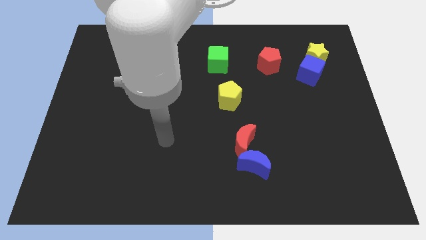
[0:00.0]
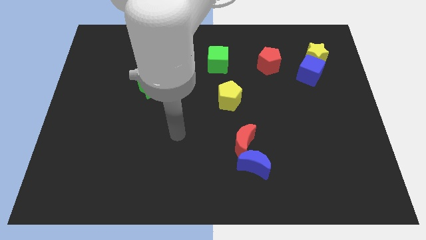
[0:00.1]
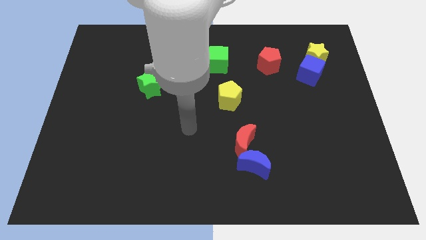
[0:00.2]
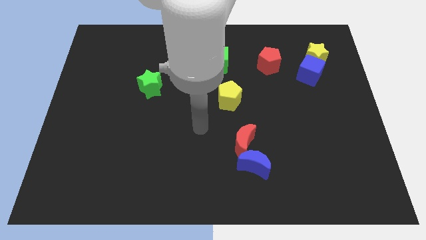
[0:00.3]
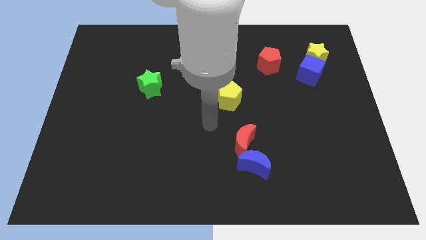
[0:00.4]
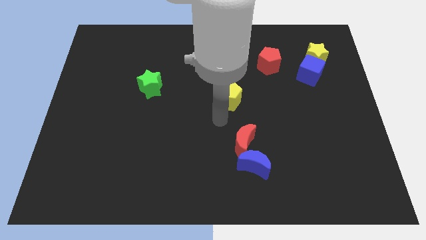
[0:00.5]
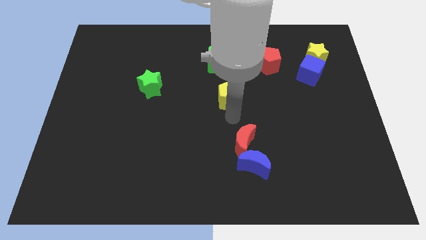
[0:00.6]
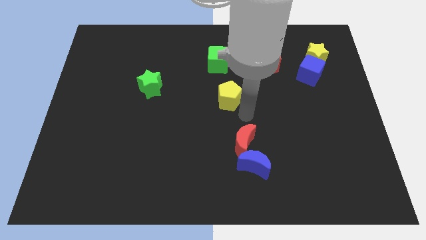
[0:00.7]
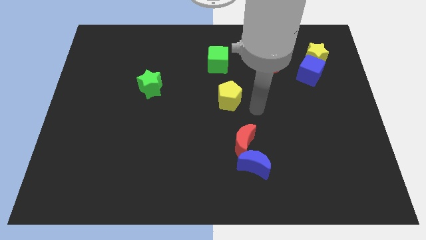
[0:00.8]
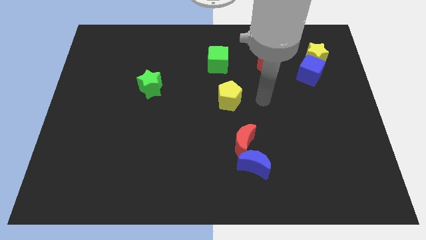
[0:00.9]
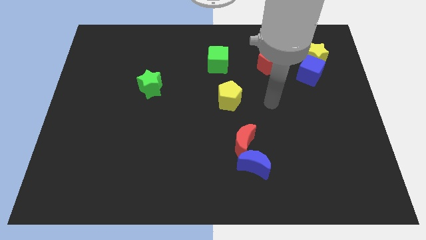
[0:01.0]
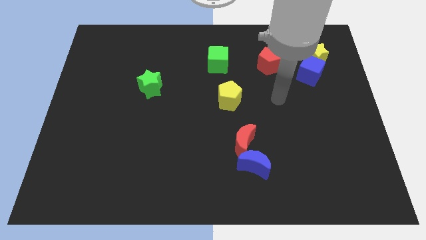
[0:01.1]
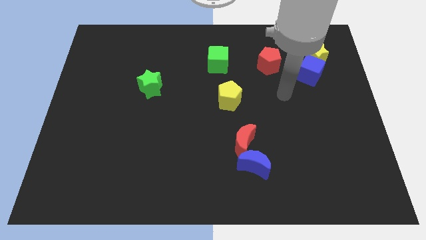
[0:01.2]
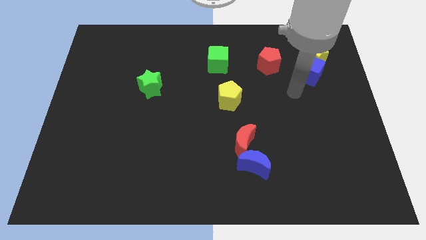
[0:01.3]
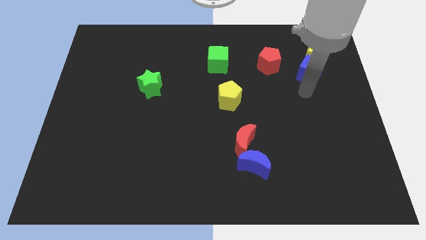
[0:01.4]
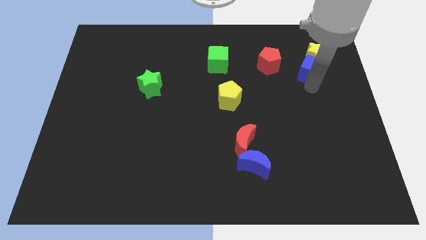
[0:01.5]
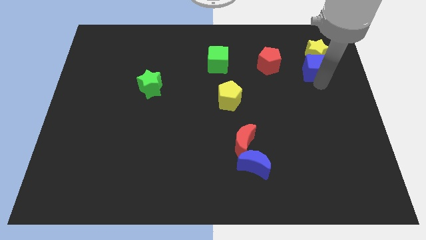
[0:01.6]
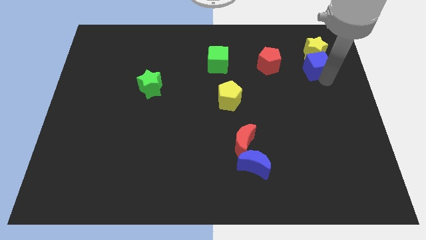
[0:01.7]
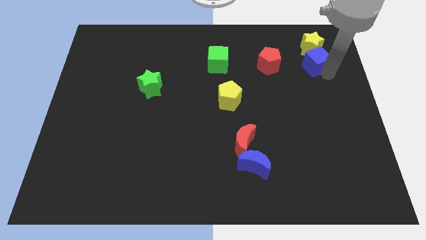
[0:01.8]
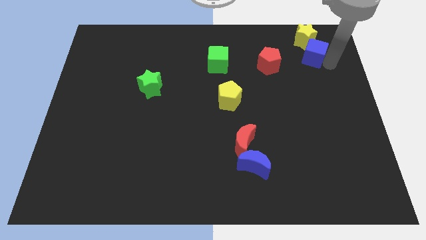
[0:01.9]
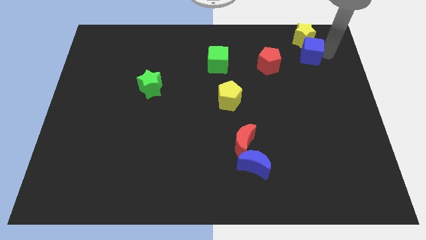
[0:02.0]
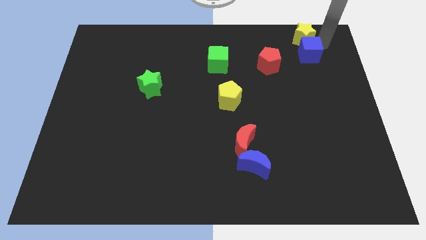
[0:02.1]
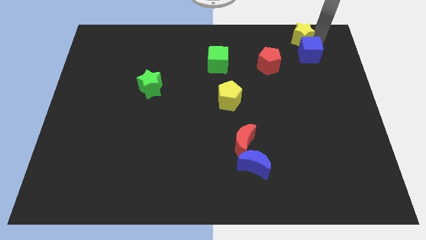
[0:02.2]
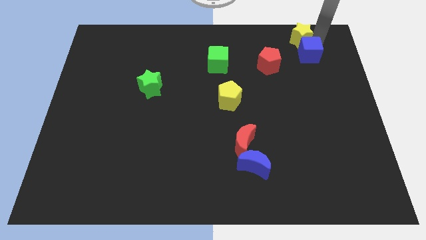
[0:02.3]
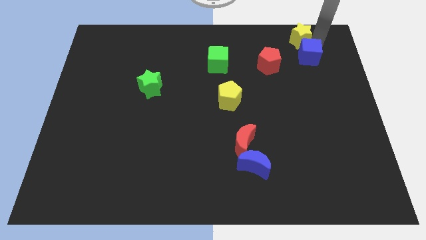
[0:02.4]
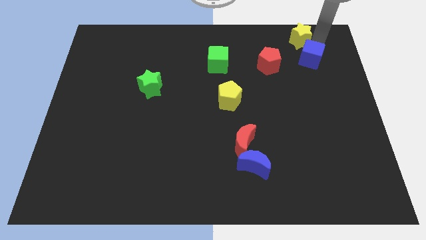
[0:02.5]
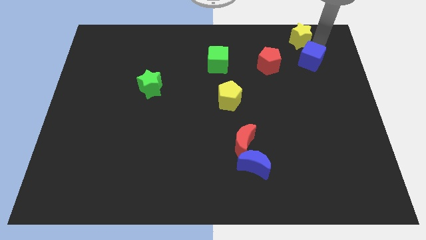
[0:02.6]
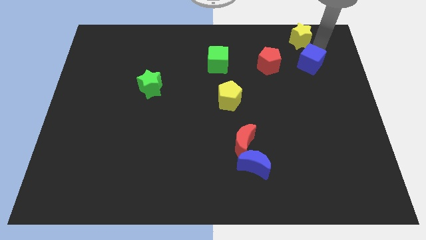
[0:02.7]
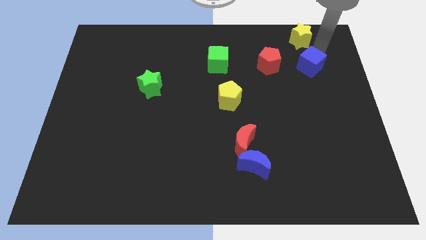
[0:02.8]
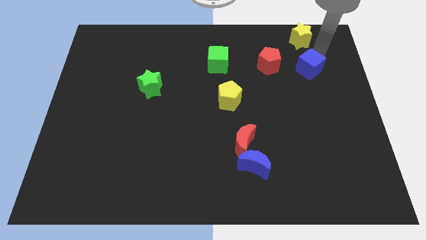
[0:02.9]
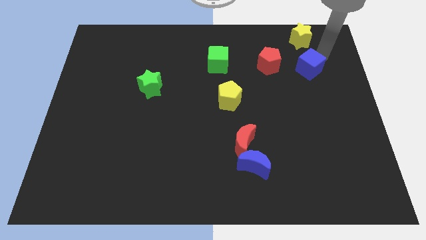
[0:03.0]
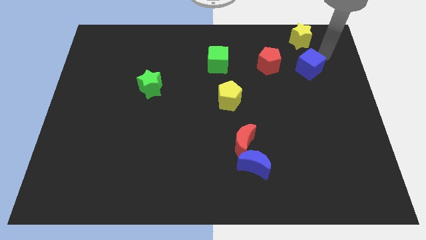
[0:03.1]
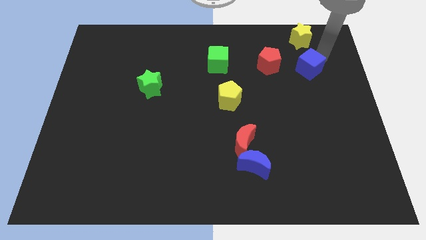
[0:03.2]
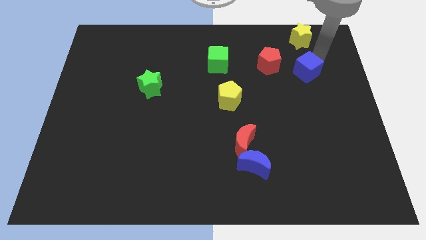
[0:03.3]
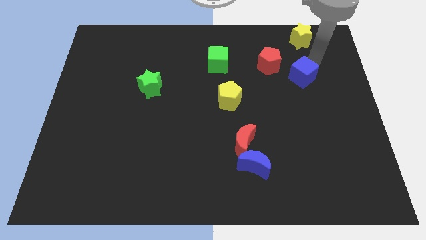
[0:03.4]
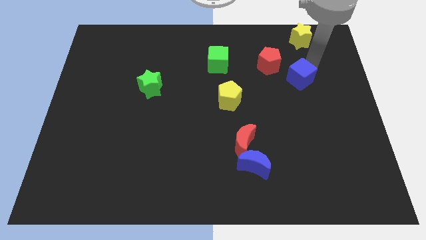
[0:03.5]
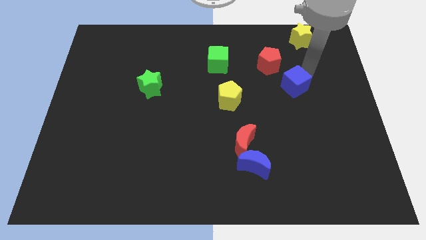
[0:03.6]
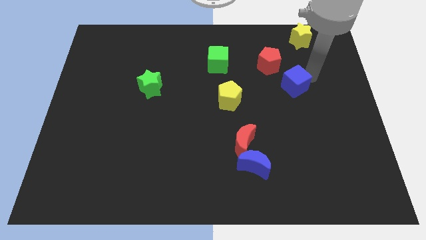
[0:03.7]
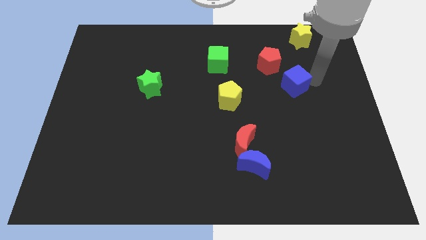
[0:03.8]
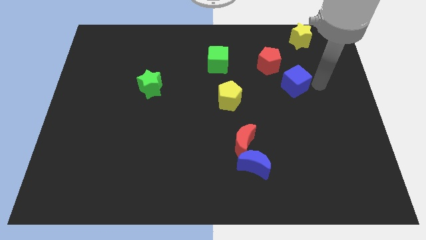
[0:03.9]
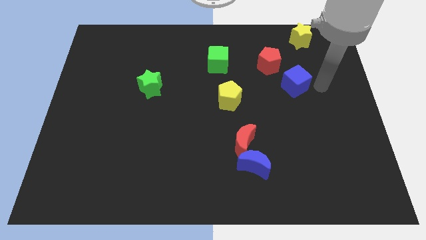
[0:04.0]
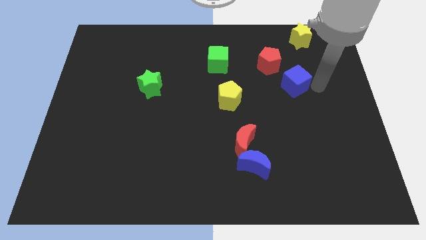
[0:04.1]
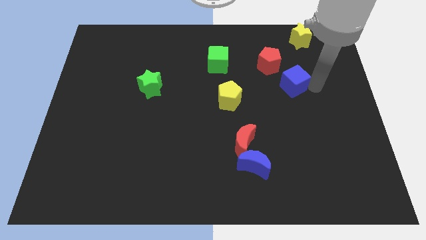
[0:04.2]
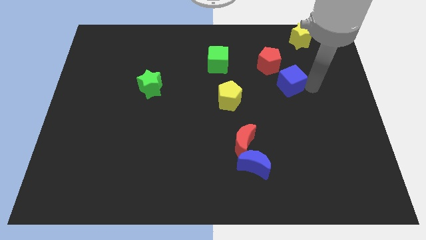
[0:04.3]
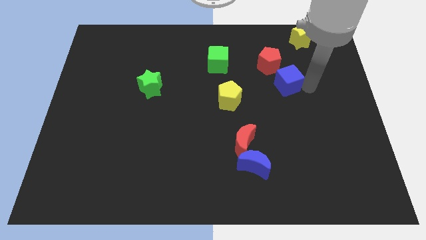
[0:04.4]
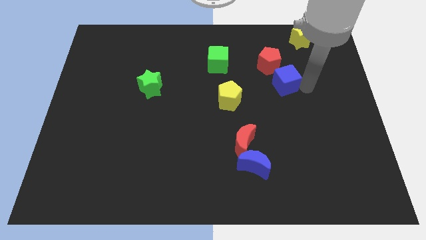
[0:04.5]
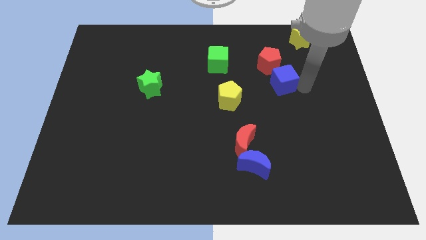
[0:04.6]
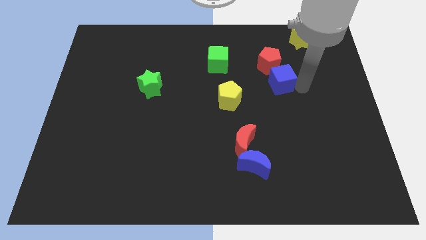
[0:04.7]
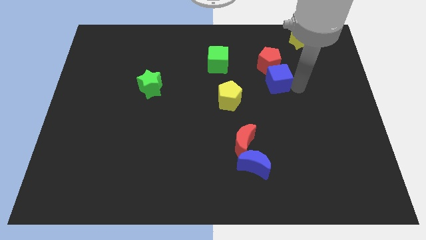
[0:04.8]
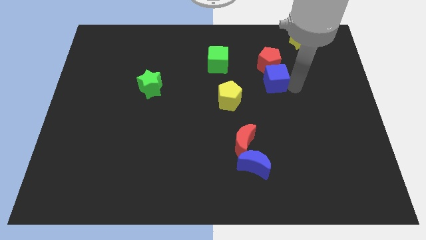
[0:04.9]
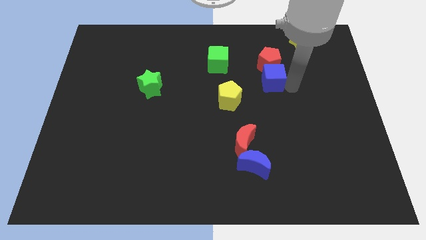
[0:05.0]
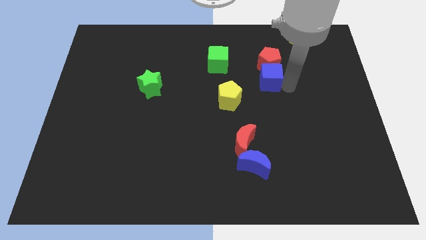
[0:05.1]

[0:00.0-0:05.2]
move the blue cube to the top right side of the yellow pentagon

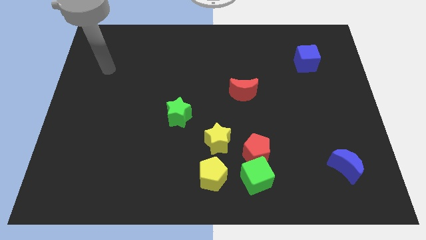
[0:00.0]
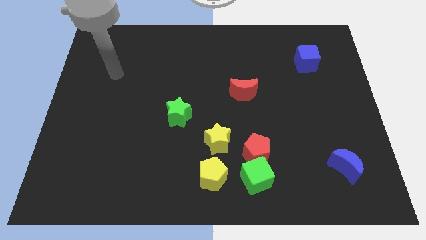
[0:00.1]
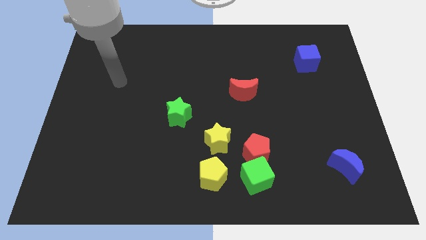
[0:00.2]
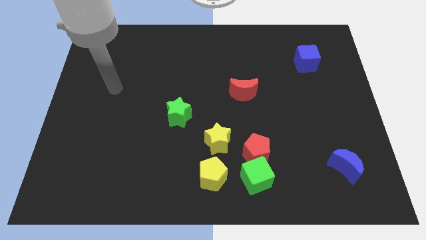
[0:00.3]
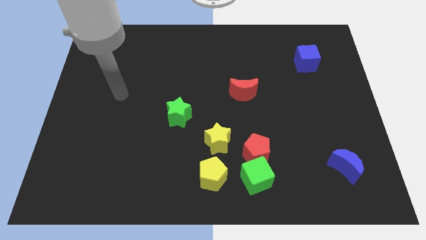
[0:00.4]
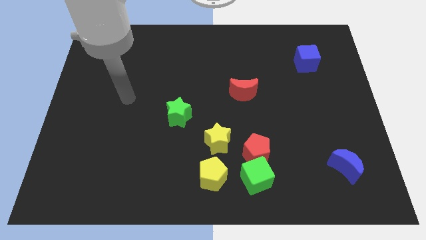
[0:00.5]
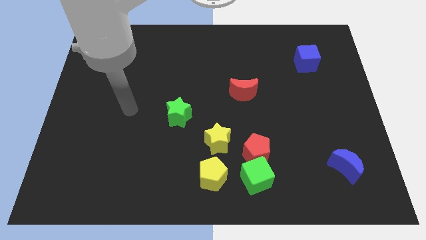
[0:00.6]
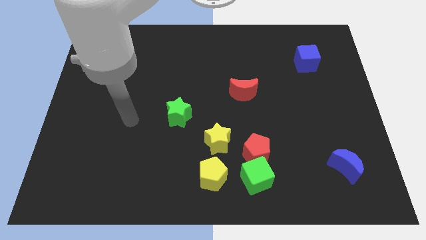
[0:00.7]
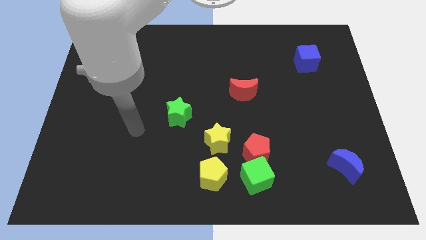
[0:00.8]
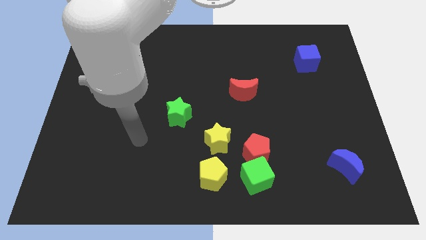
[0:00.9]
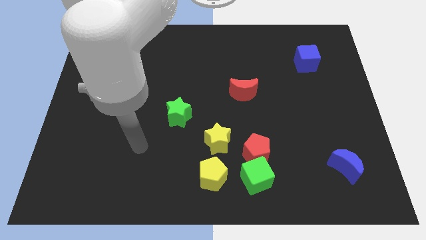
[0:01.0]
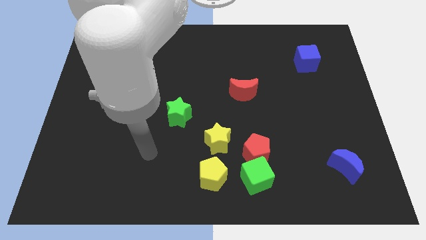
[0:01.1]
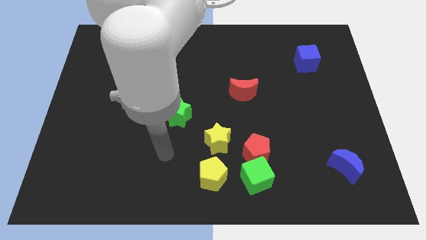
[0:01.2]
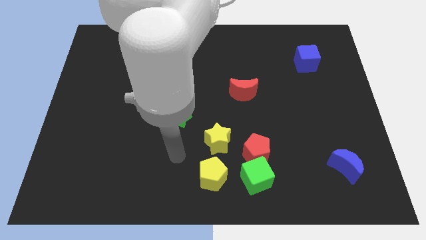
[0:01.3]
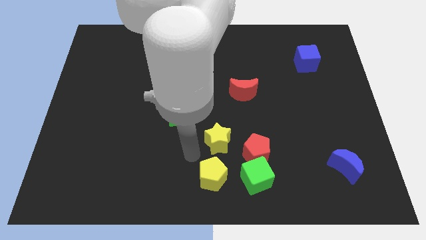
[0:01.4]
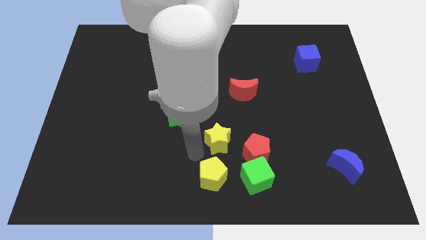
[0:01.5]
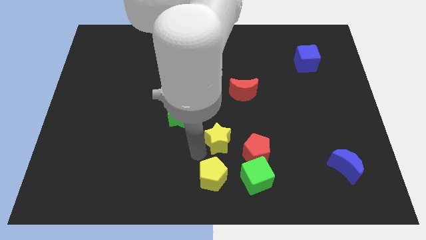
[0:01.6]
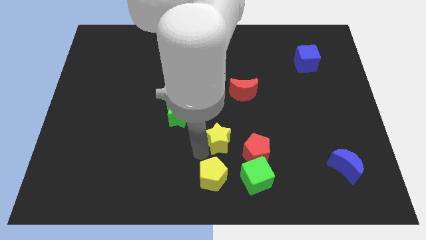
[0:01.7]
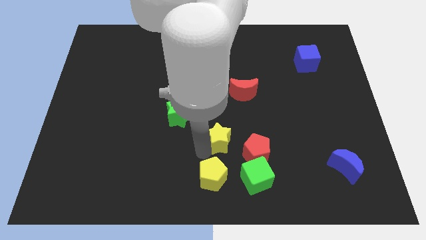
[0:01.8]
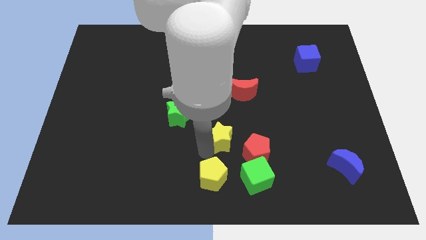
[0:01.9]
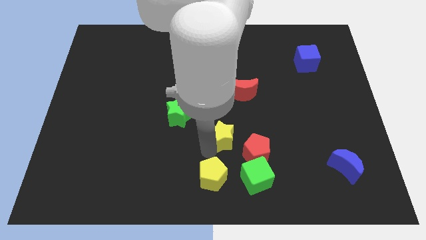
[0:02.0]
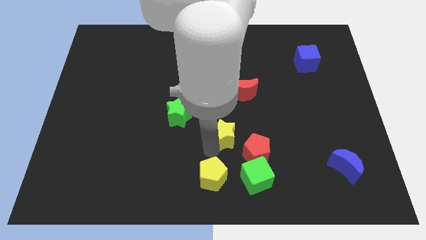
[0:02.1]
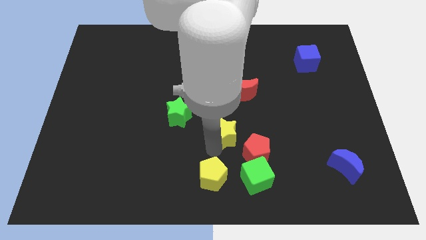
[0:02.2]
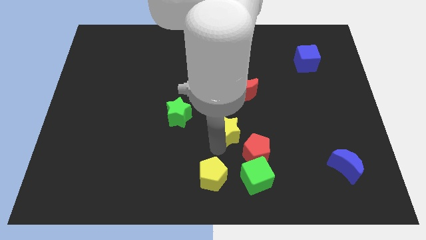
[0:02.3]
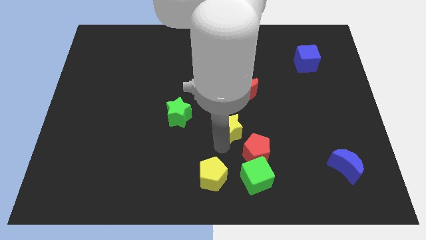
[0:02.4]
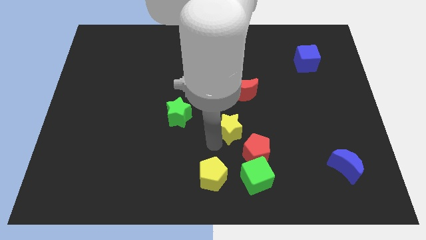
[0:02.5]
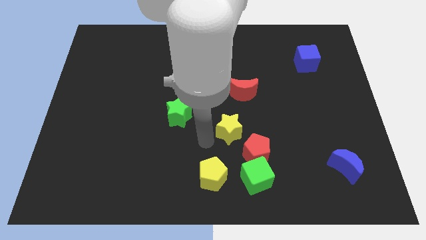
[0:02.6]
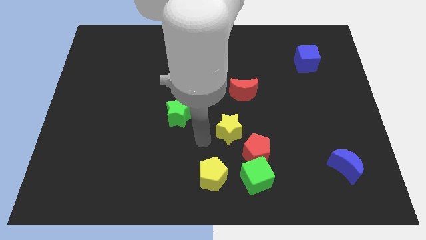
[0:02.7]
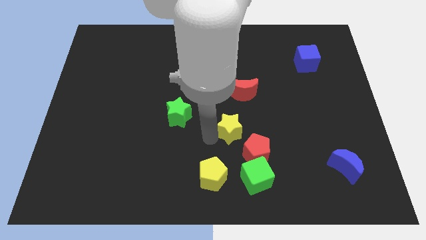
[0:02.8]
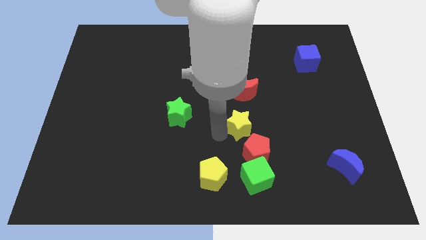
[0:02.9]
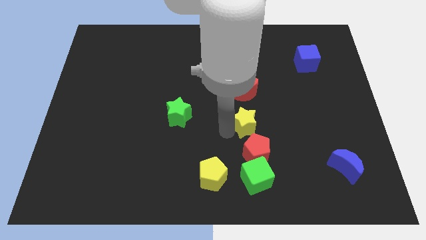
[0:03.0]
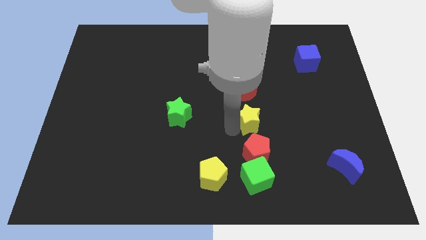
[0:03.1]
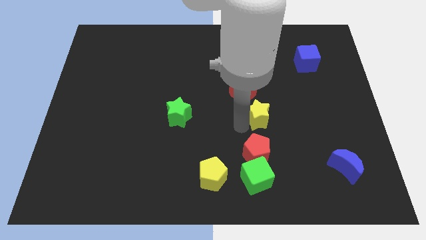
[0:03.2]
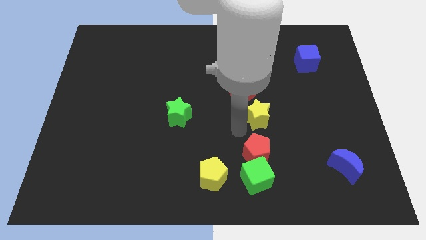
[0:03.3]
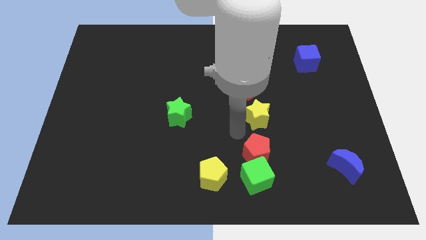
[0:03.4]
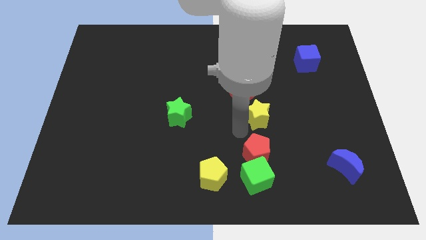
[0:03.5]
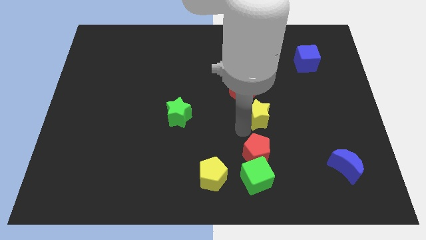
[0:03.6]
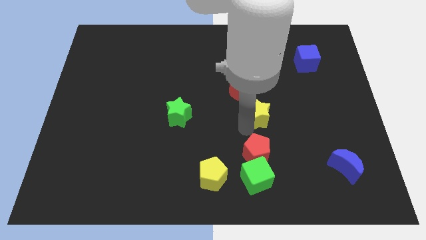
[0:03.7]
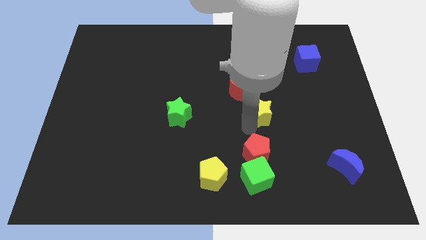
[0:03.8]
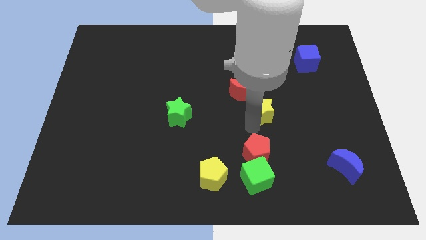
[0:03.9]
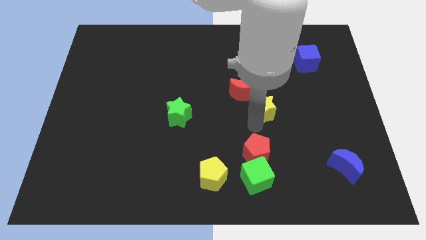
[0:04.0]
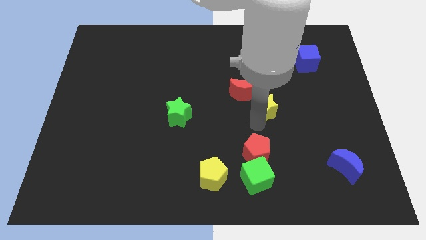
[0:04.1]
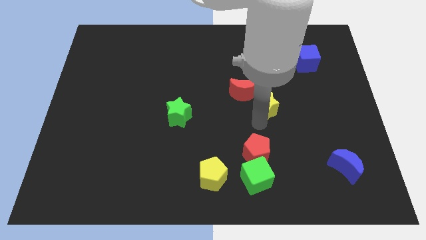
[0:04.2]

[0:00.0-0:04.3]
put the yellow star just right of the red moon
